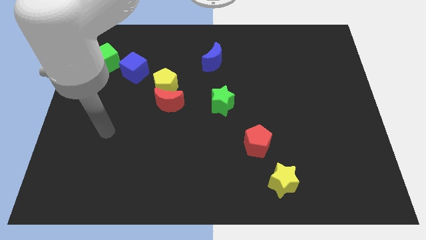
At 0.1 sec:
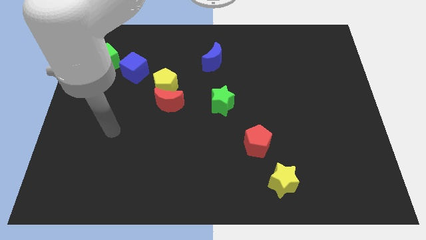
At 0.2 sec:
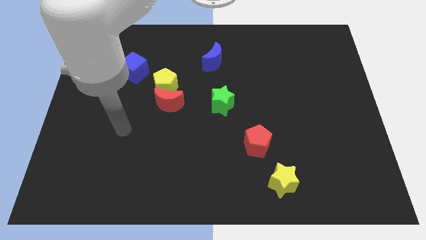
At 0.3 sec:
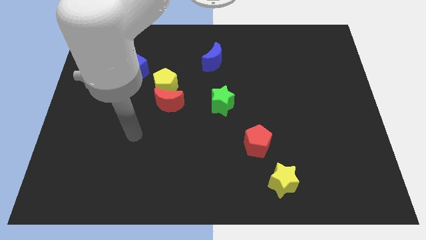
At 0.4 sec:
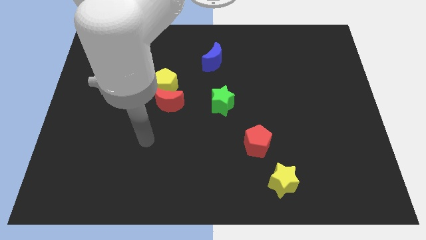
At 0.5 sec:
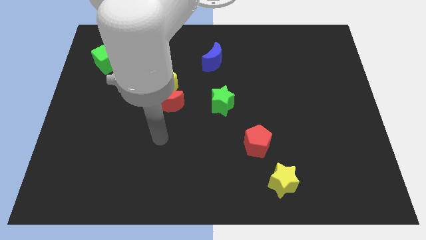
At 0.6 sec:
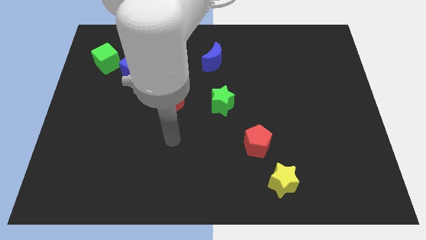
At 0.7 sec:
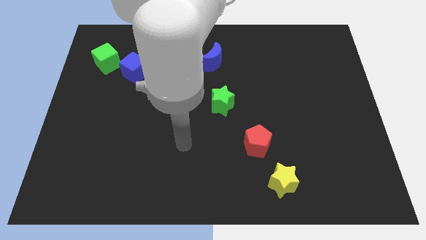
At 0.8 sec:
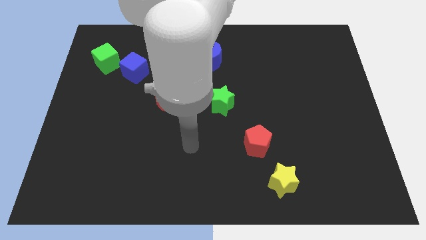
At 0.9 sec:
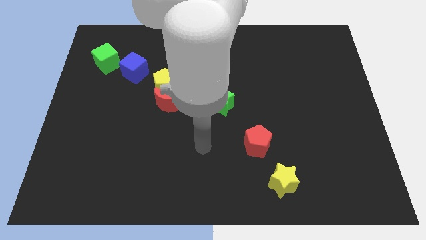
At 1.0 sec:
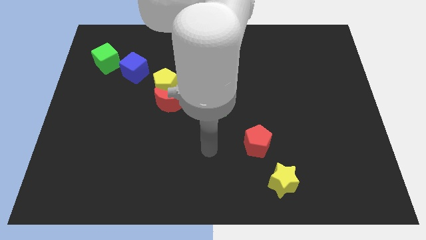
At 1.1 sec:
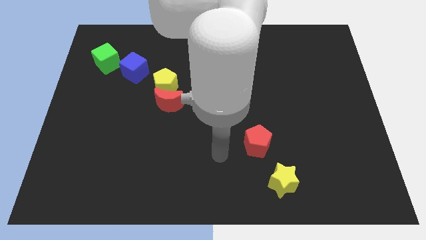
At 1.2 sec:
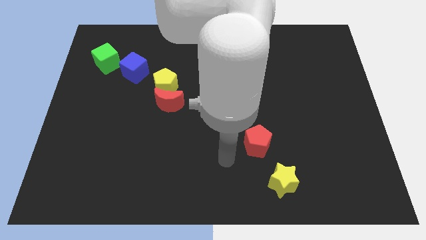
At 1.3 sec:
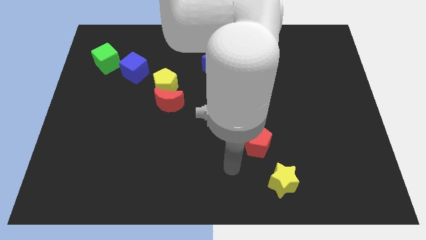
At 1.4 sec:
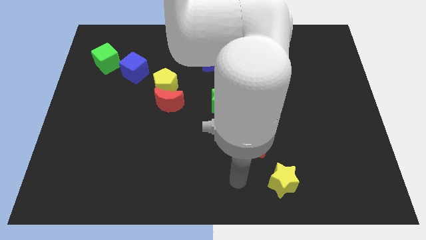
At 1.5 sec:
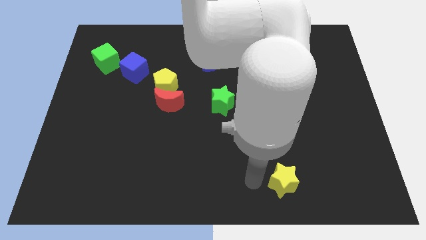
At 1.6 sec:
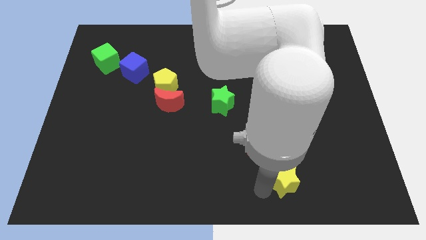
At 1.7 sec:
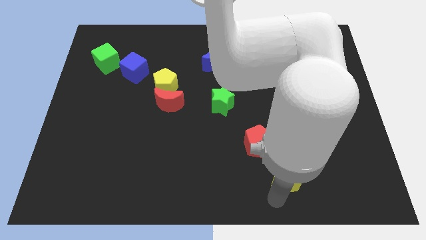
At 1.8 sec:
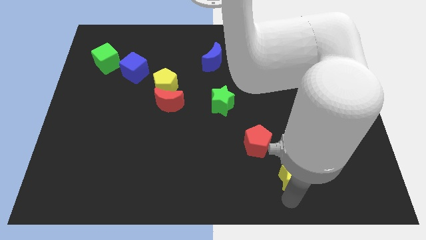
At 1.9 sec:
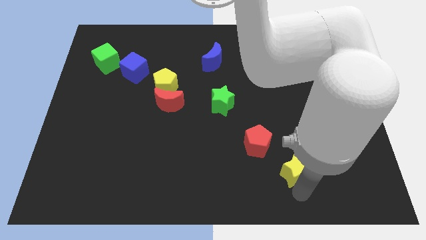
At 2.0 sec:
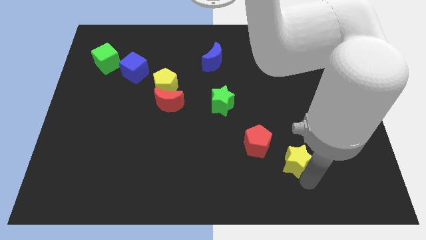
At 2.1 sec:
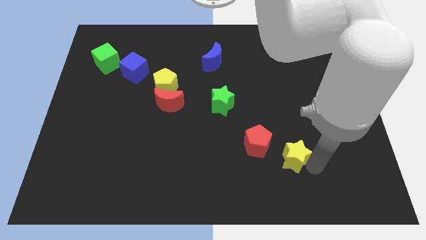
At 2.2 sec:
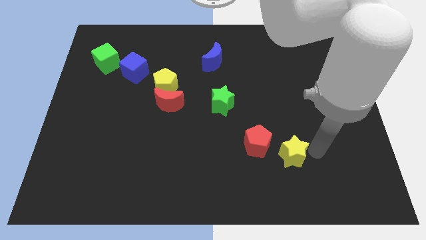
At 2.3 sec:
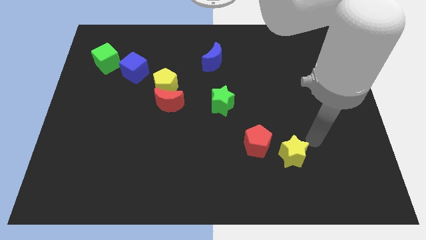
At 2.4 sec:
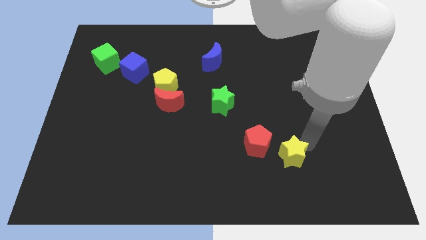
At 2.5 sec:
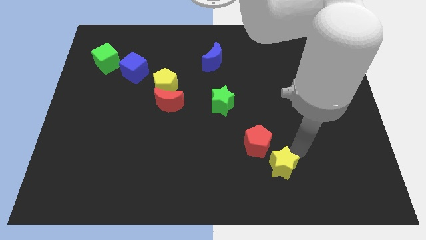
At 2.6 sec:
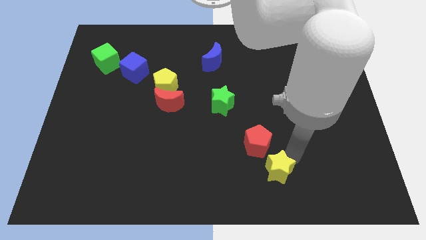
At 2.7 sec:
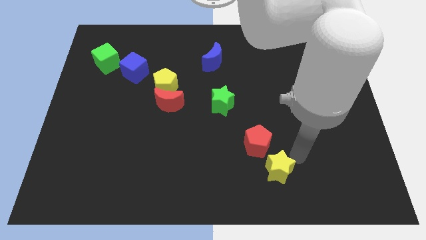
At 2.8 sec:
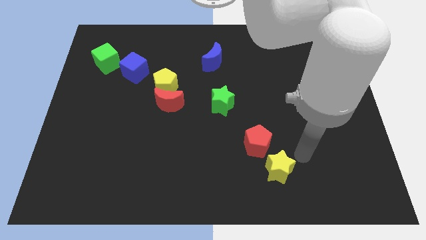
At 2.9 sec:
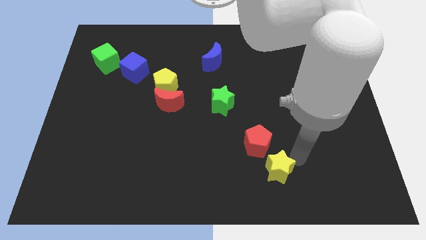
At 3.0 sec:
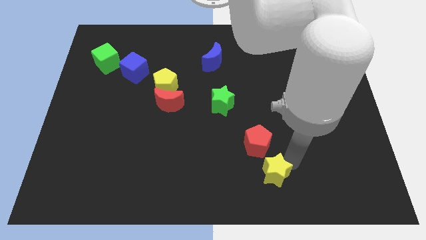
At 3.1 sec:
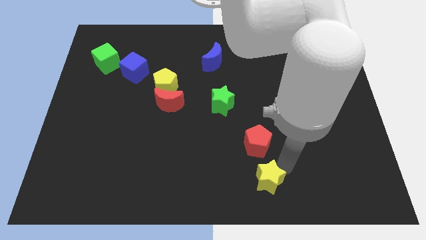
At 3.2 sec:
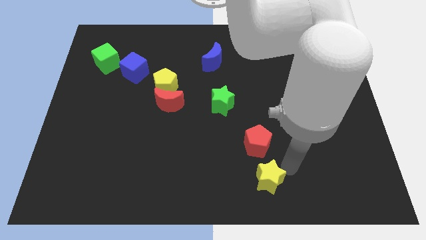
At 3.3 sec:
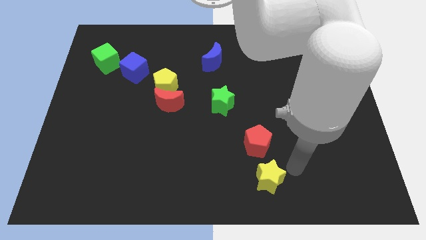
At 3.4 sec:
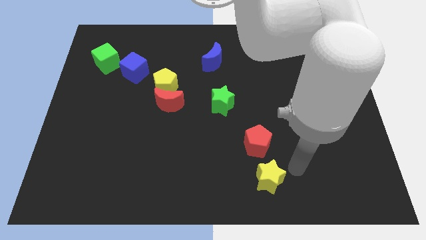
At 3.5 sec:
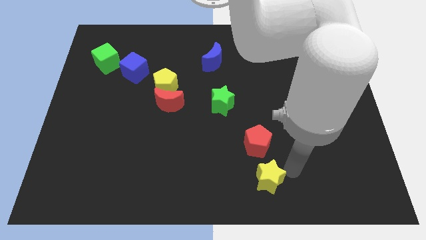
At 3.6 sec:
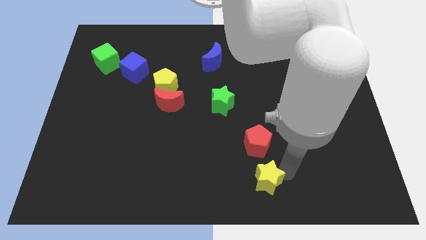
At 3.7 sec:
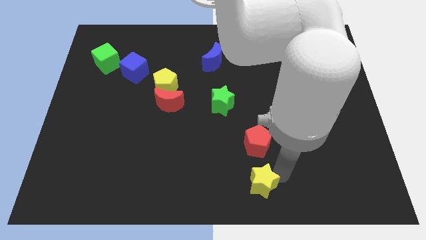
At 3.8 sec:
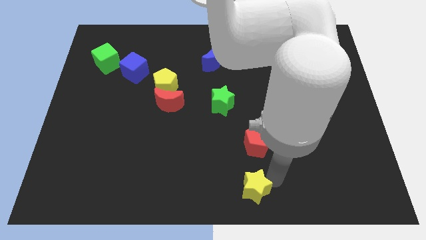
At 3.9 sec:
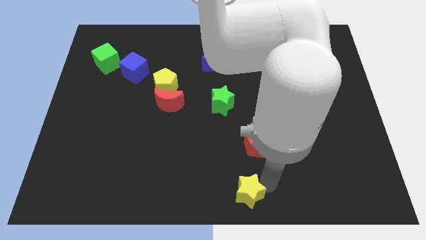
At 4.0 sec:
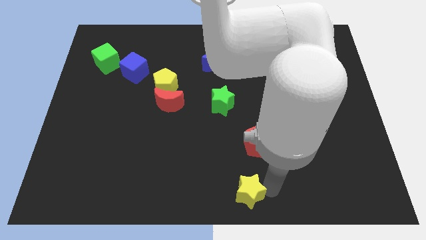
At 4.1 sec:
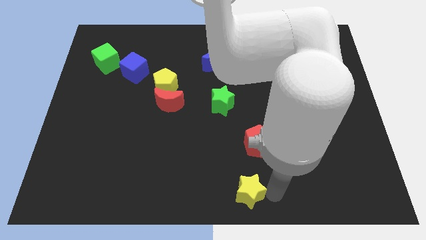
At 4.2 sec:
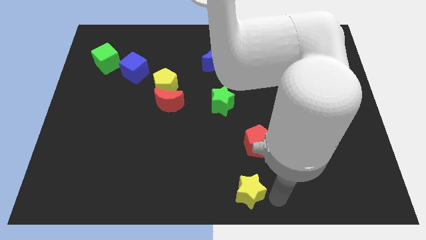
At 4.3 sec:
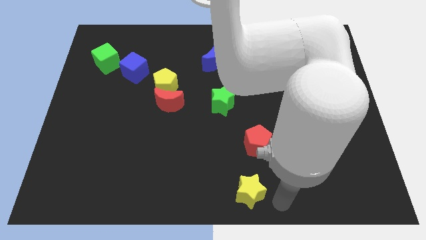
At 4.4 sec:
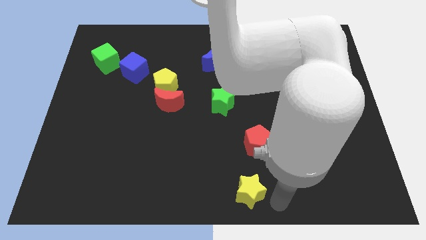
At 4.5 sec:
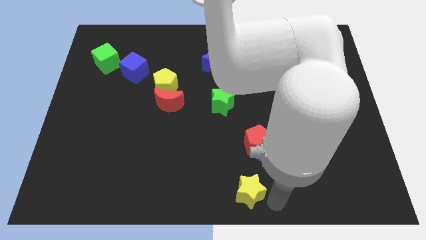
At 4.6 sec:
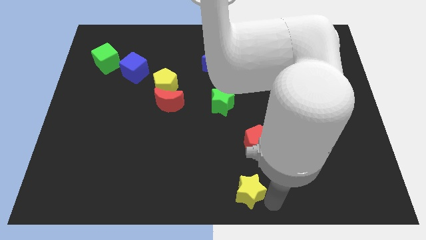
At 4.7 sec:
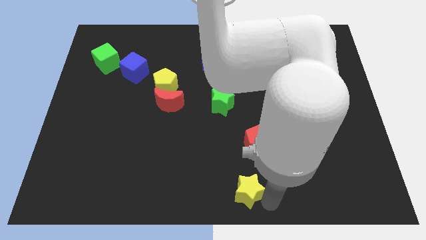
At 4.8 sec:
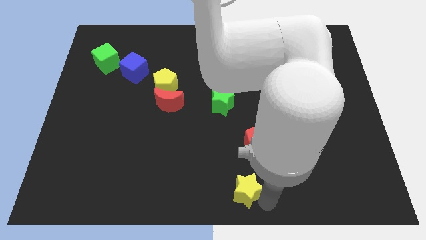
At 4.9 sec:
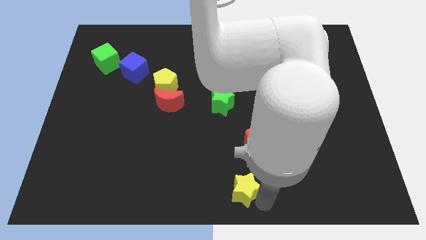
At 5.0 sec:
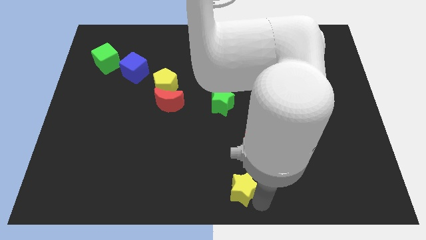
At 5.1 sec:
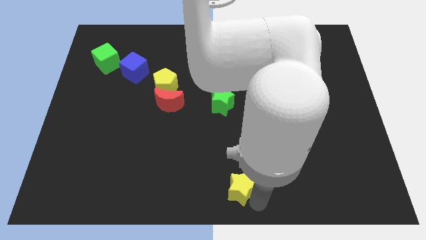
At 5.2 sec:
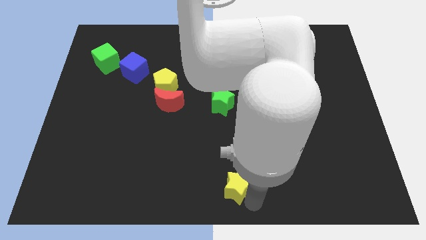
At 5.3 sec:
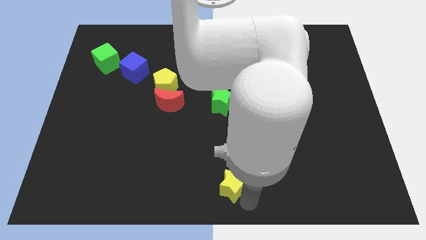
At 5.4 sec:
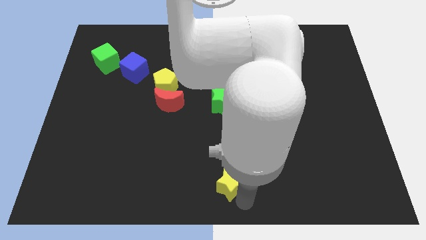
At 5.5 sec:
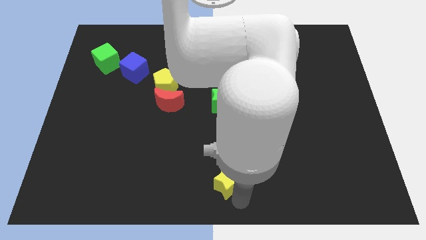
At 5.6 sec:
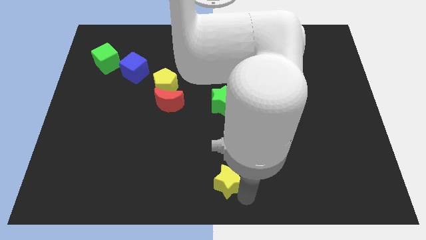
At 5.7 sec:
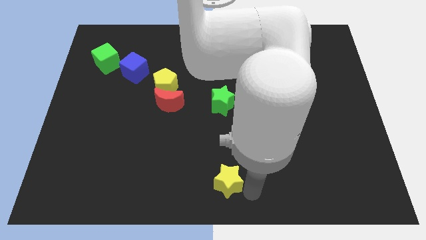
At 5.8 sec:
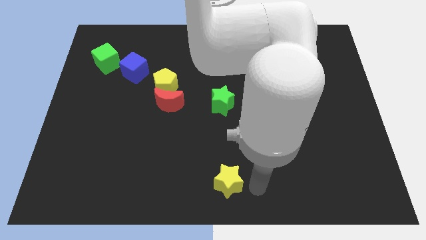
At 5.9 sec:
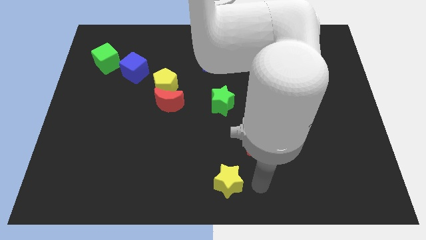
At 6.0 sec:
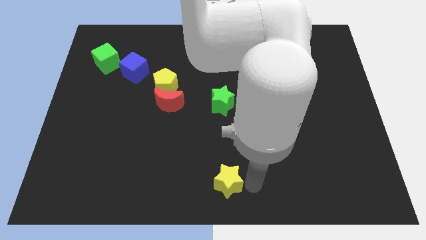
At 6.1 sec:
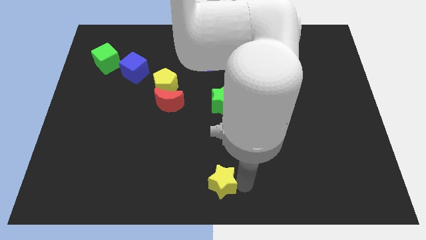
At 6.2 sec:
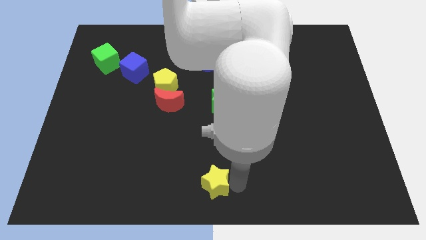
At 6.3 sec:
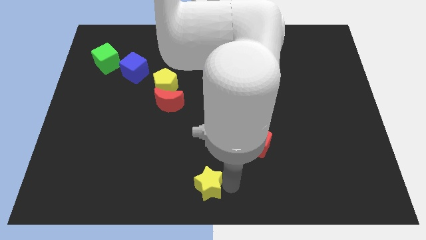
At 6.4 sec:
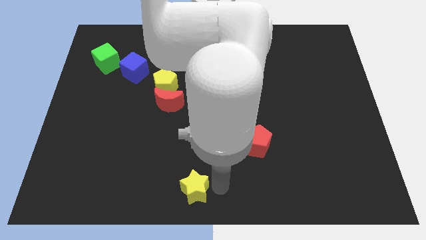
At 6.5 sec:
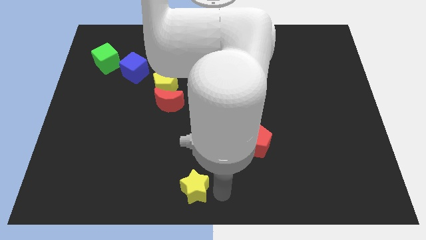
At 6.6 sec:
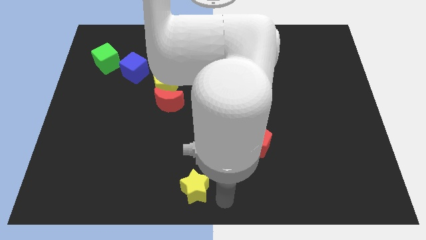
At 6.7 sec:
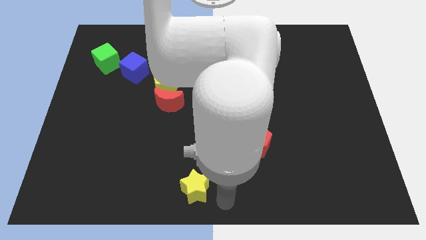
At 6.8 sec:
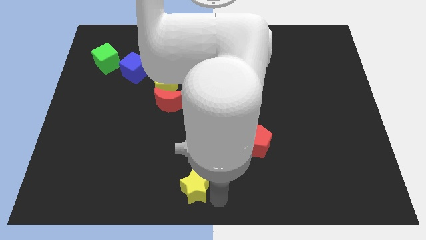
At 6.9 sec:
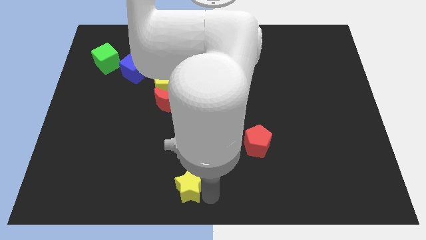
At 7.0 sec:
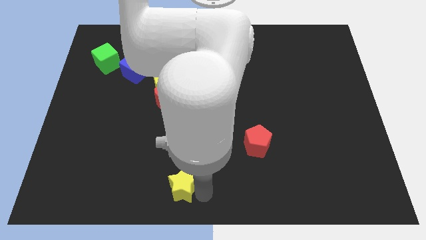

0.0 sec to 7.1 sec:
move the yellow star to the left

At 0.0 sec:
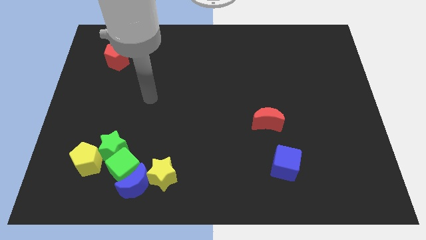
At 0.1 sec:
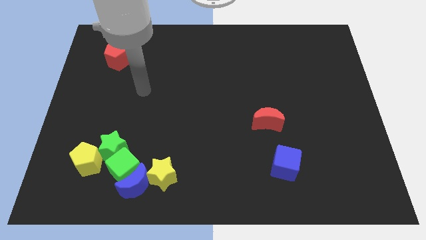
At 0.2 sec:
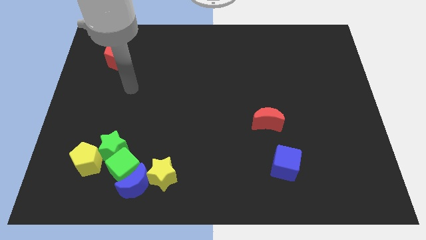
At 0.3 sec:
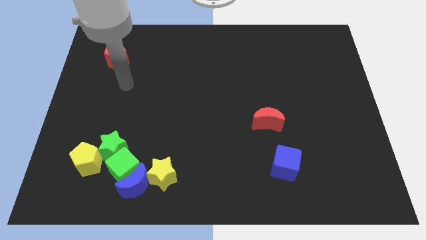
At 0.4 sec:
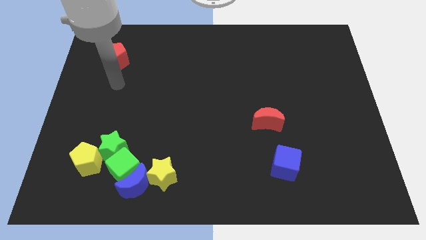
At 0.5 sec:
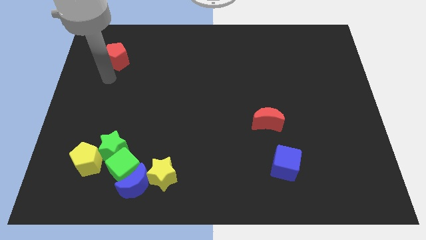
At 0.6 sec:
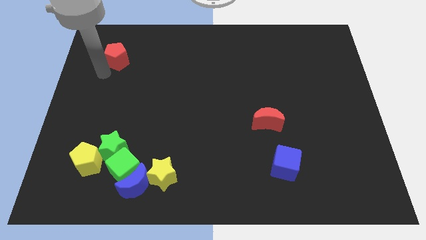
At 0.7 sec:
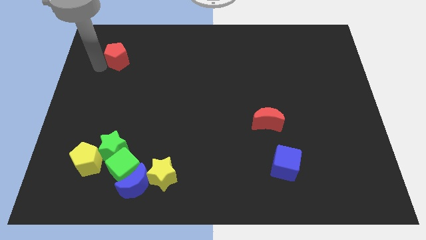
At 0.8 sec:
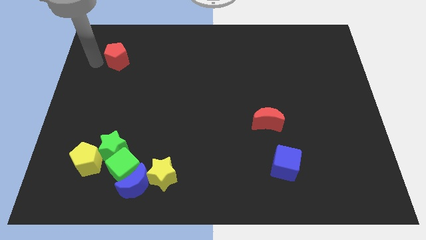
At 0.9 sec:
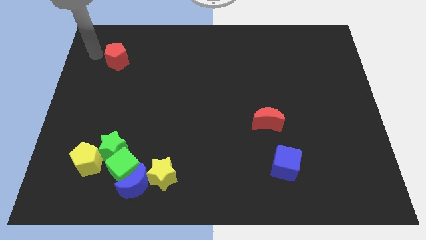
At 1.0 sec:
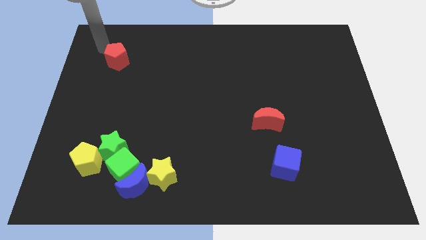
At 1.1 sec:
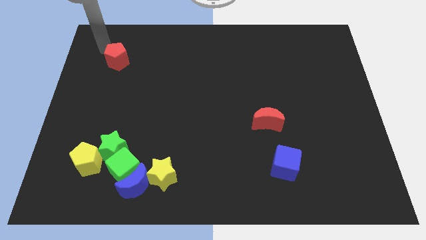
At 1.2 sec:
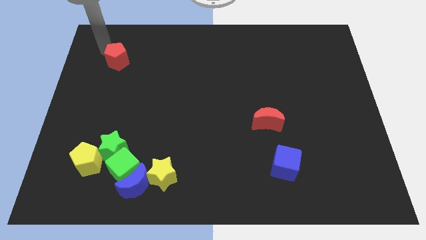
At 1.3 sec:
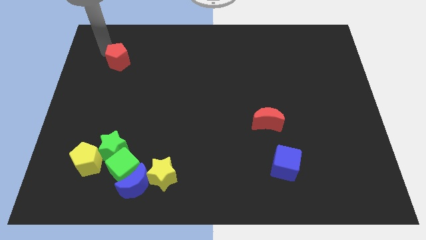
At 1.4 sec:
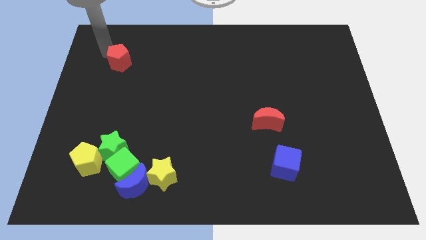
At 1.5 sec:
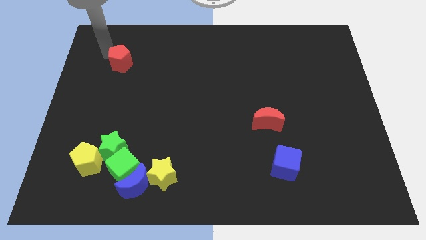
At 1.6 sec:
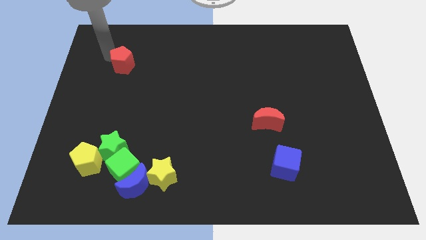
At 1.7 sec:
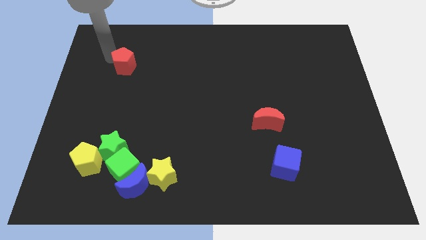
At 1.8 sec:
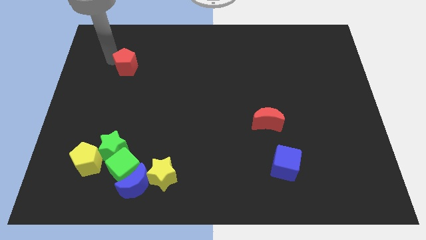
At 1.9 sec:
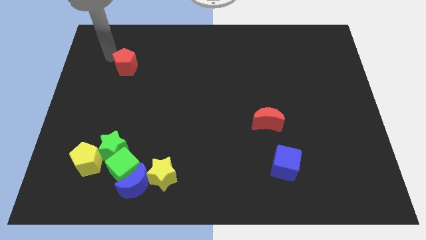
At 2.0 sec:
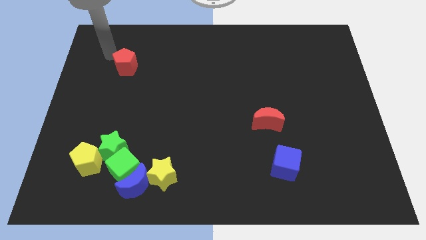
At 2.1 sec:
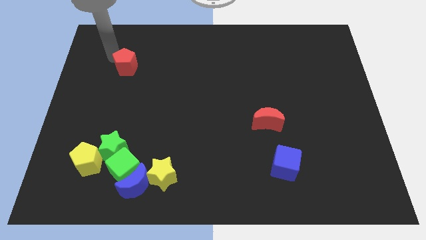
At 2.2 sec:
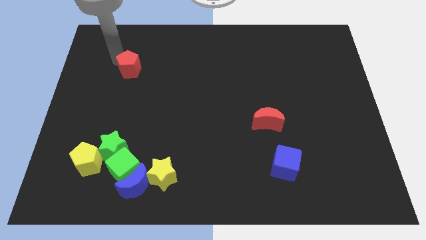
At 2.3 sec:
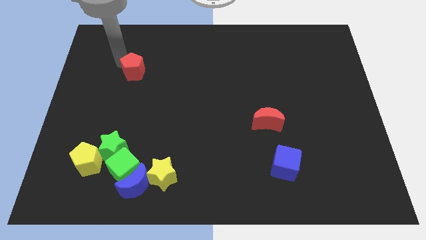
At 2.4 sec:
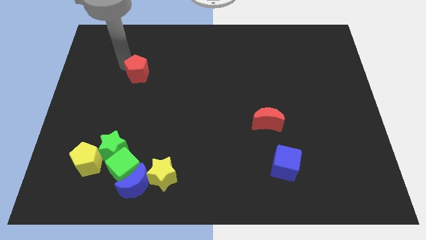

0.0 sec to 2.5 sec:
push the red pentagon somewhat downwards and right diagonally
